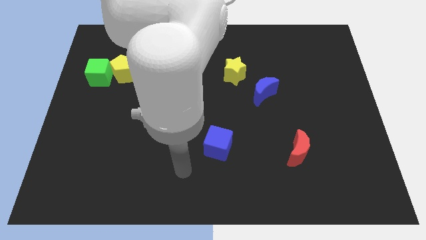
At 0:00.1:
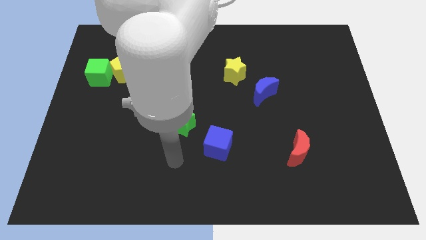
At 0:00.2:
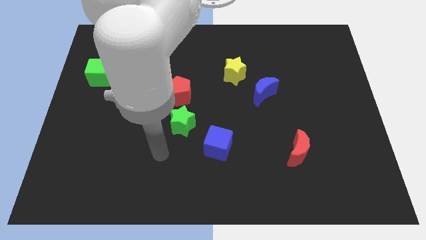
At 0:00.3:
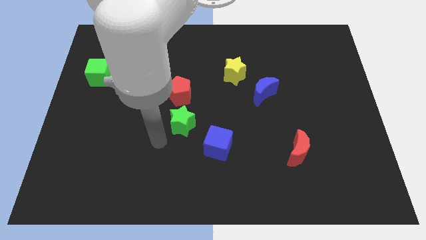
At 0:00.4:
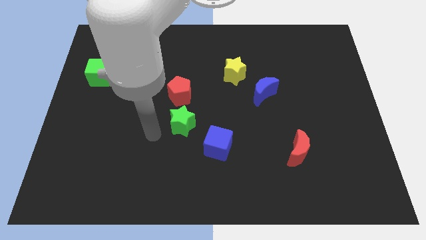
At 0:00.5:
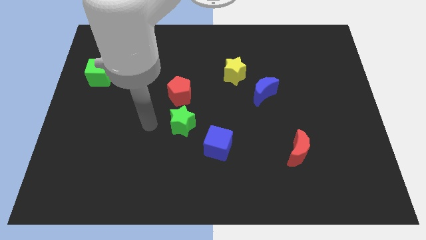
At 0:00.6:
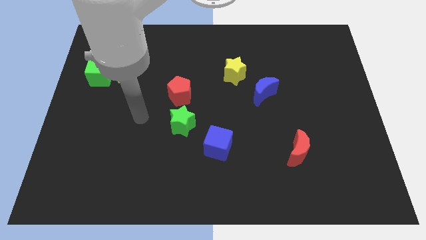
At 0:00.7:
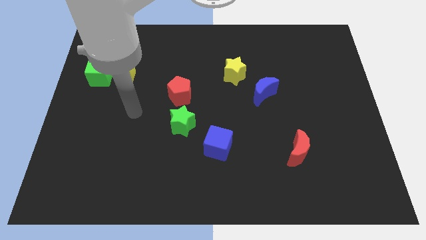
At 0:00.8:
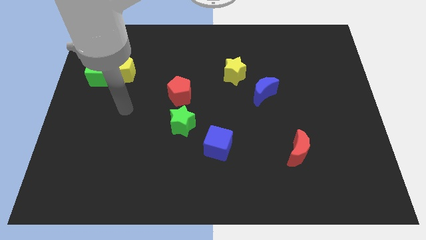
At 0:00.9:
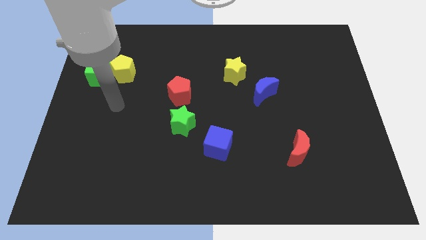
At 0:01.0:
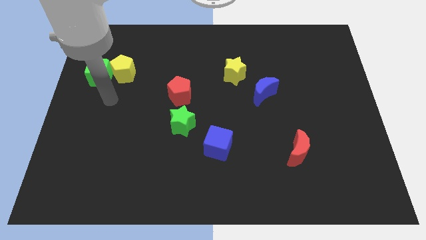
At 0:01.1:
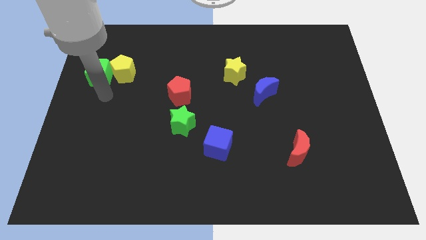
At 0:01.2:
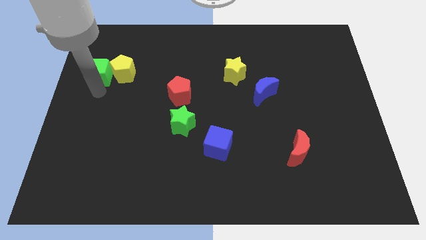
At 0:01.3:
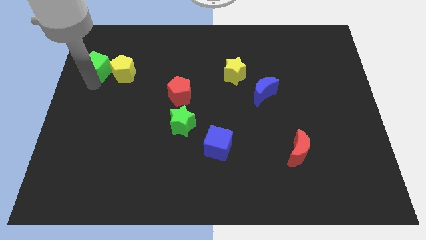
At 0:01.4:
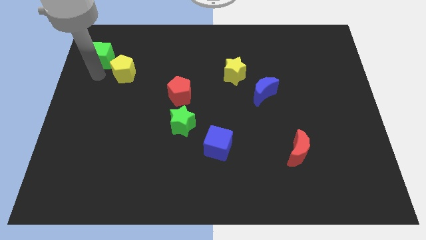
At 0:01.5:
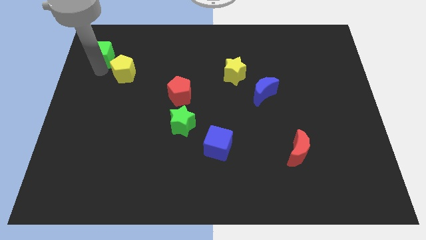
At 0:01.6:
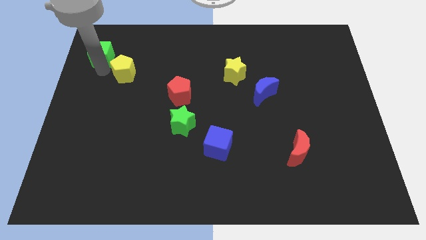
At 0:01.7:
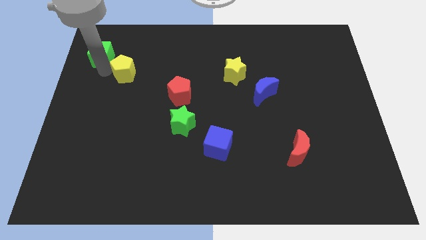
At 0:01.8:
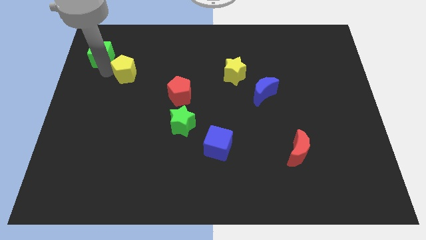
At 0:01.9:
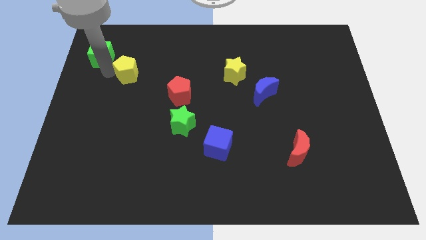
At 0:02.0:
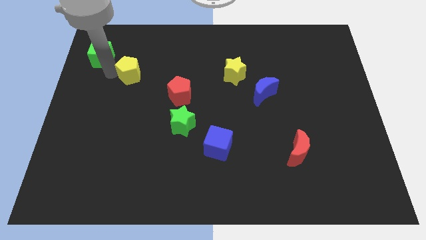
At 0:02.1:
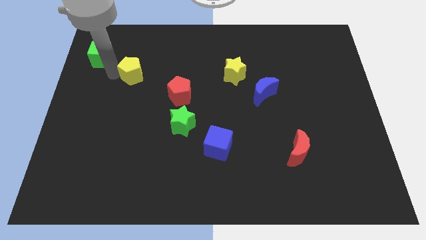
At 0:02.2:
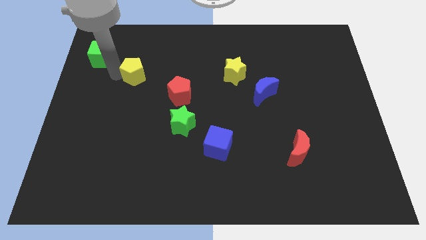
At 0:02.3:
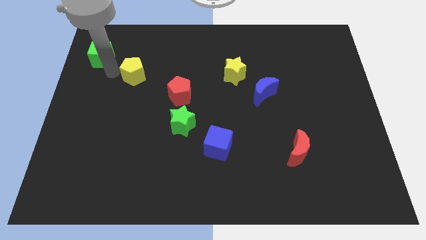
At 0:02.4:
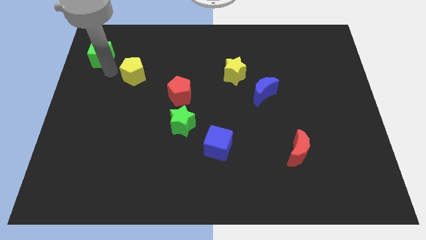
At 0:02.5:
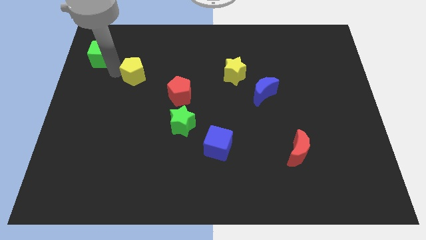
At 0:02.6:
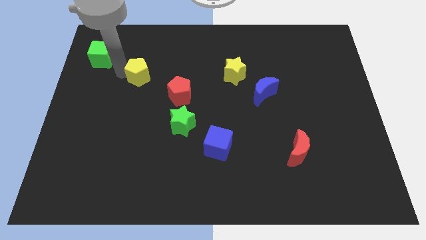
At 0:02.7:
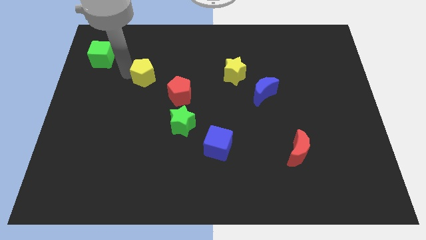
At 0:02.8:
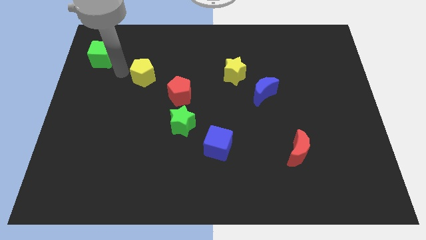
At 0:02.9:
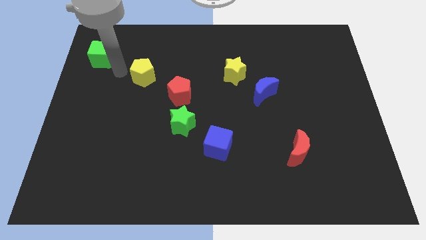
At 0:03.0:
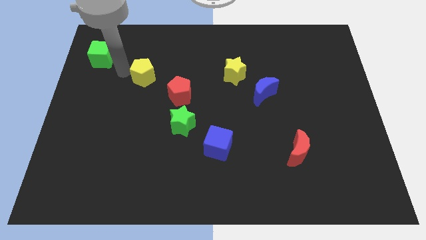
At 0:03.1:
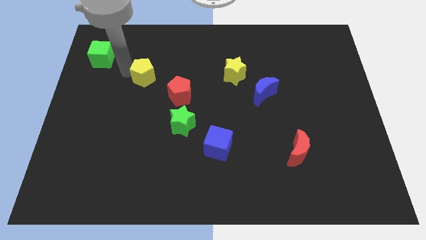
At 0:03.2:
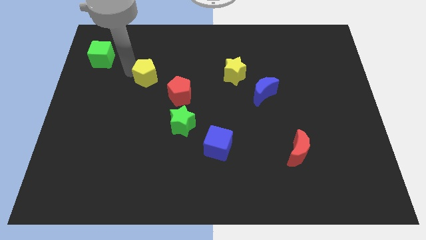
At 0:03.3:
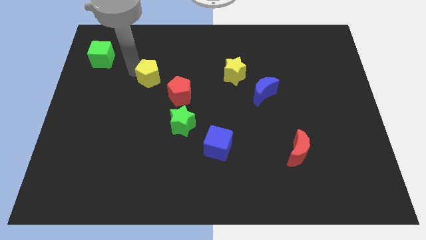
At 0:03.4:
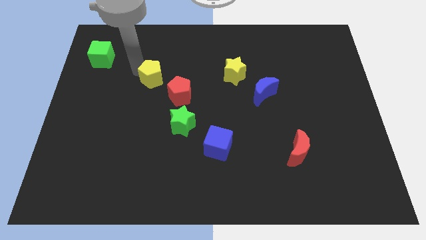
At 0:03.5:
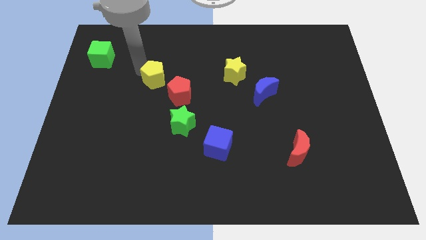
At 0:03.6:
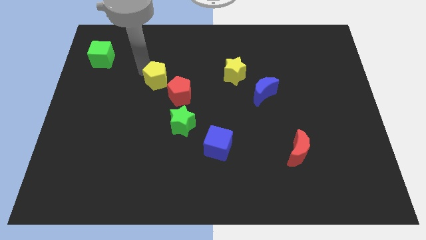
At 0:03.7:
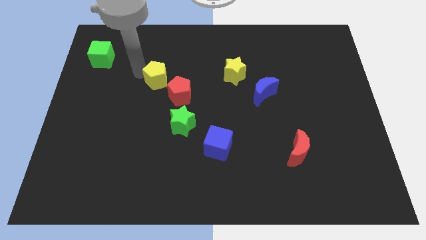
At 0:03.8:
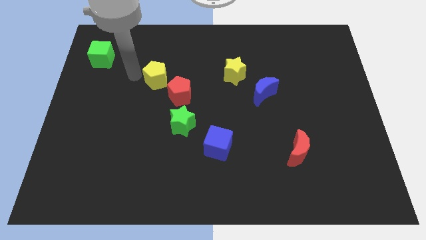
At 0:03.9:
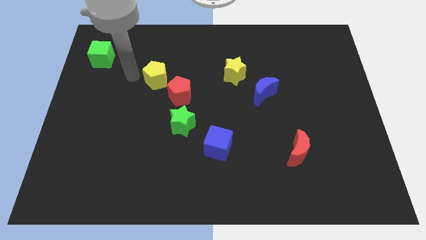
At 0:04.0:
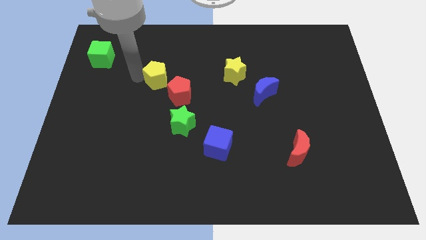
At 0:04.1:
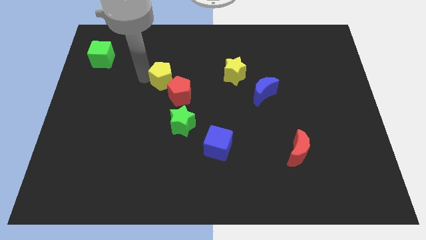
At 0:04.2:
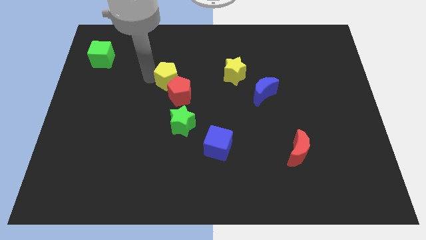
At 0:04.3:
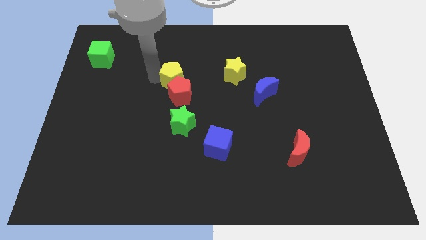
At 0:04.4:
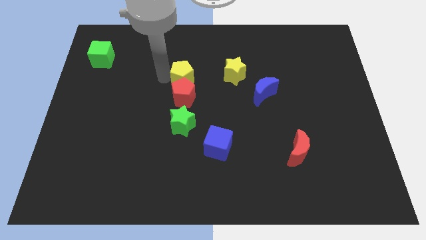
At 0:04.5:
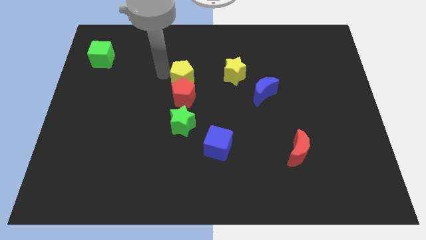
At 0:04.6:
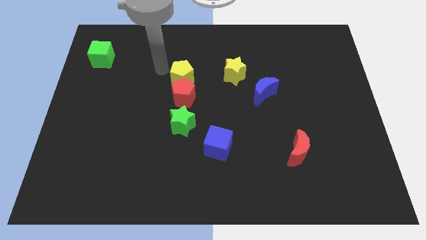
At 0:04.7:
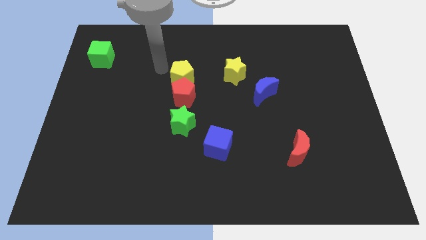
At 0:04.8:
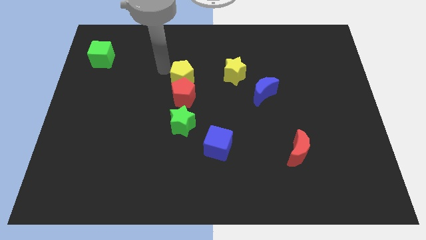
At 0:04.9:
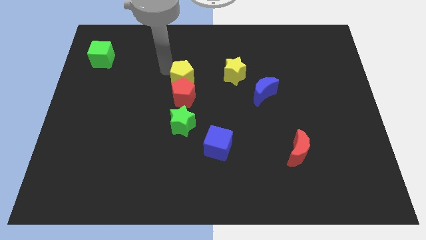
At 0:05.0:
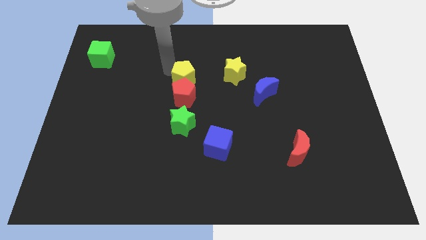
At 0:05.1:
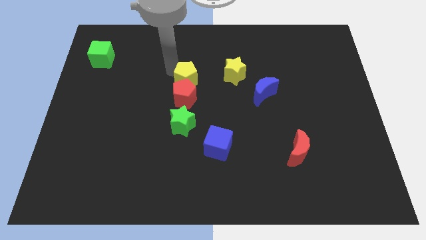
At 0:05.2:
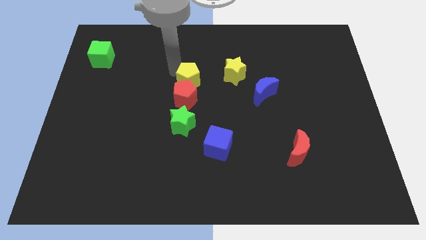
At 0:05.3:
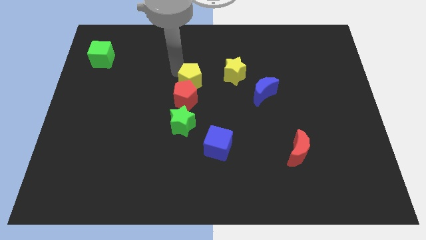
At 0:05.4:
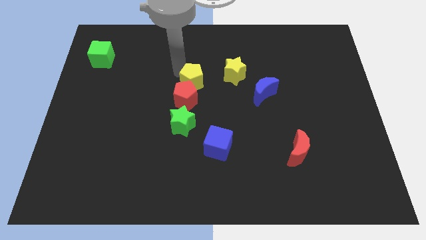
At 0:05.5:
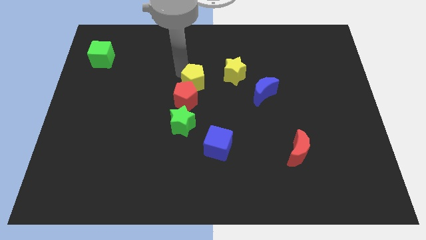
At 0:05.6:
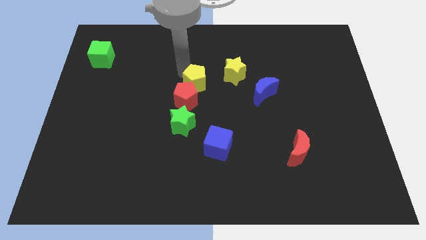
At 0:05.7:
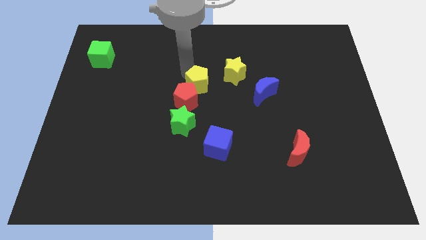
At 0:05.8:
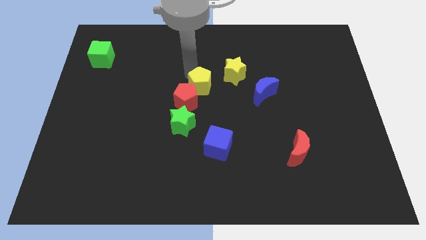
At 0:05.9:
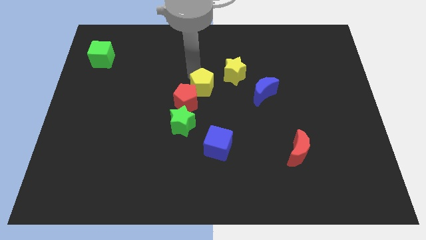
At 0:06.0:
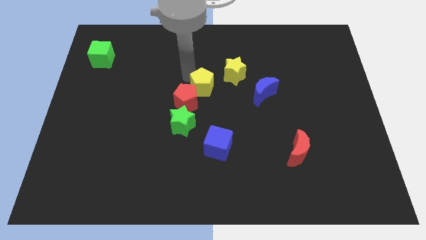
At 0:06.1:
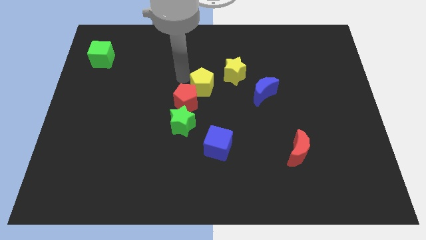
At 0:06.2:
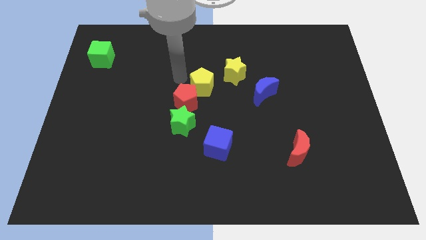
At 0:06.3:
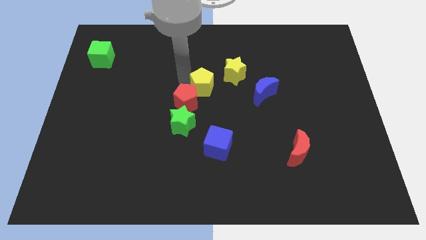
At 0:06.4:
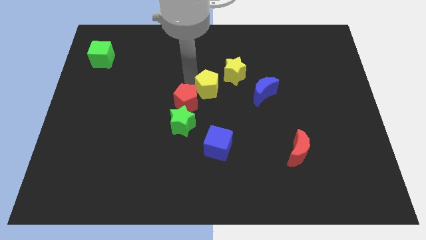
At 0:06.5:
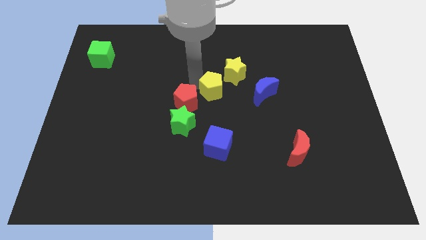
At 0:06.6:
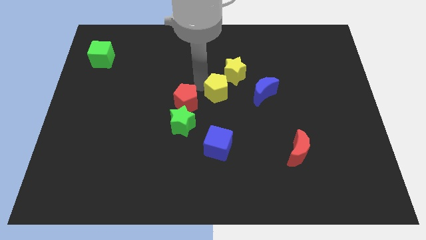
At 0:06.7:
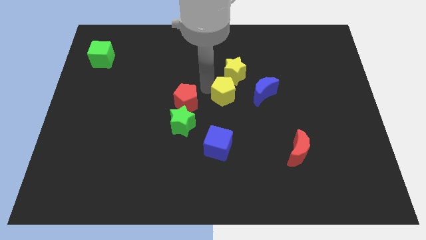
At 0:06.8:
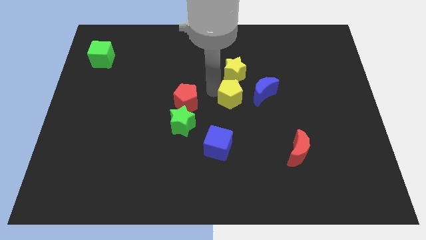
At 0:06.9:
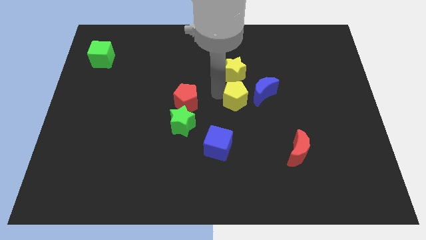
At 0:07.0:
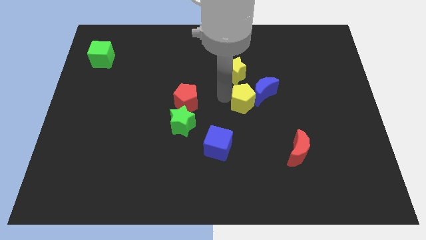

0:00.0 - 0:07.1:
slide the yellow pentagon next to the blue moon

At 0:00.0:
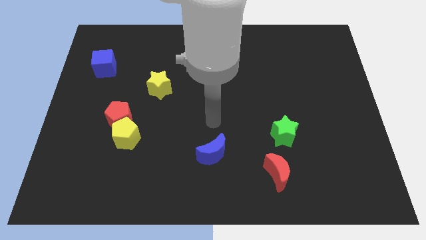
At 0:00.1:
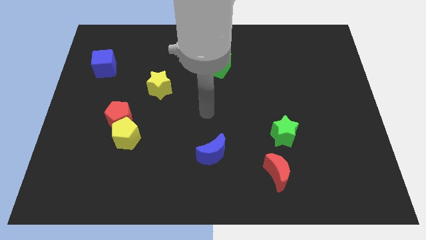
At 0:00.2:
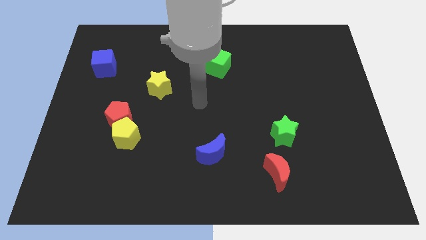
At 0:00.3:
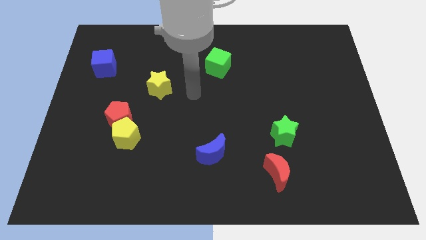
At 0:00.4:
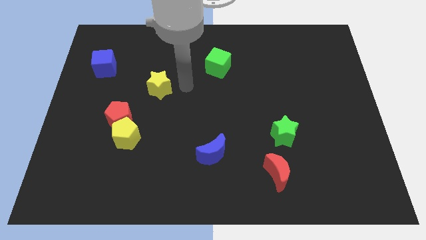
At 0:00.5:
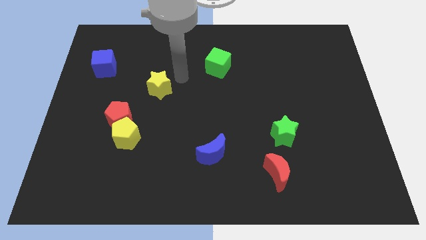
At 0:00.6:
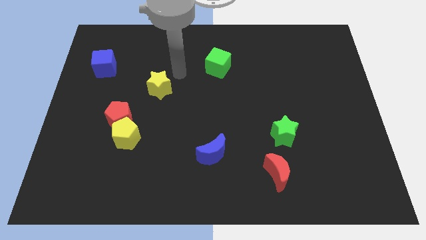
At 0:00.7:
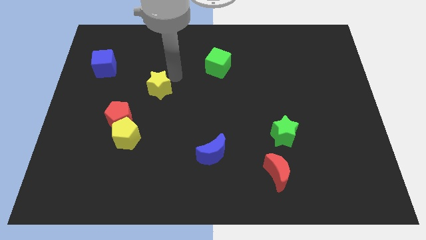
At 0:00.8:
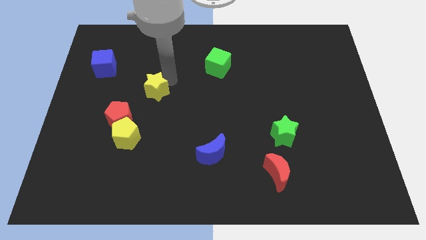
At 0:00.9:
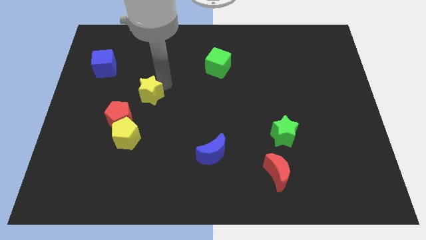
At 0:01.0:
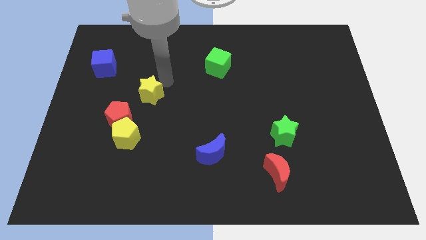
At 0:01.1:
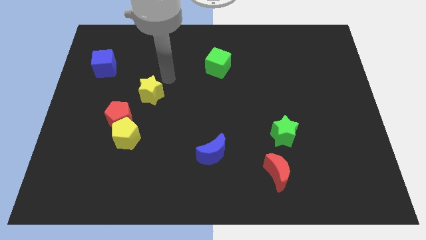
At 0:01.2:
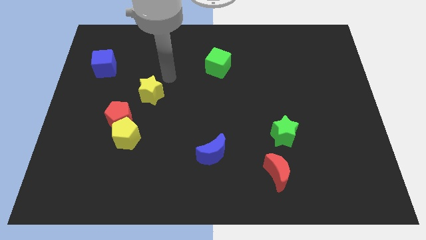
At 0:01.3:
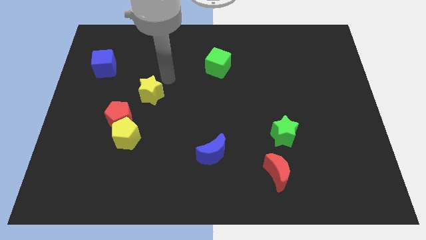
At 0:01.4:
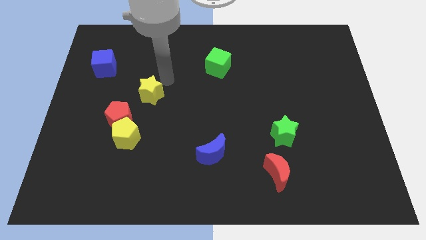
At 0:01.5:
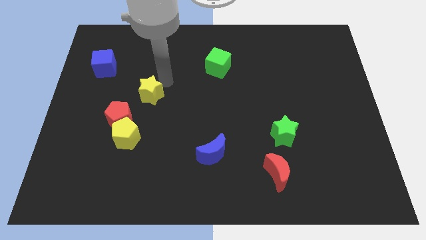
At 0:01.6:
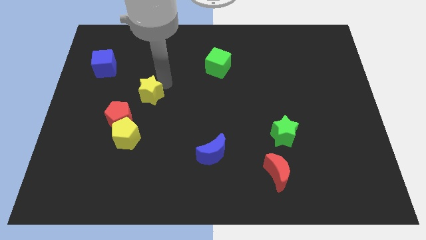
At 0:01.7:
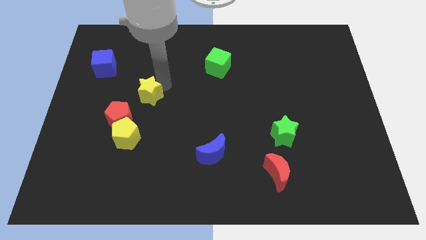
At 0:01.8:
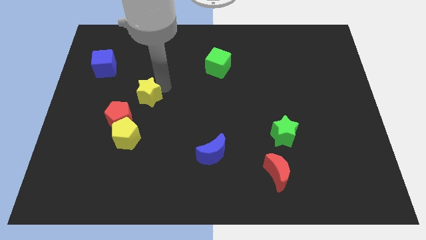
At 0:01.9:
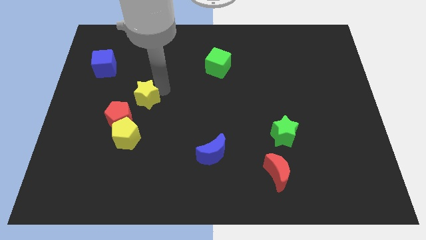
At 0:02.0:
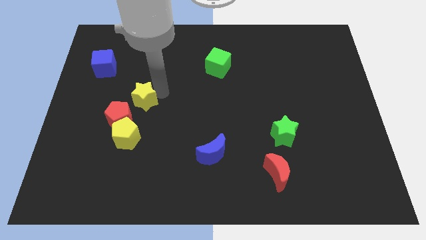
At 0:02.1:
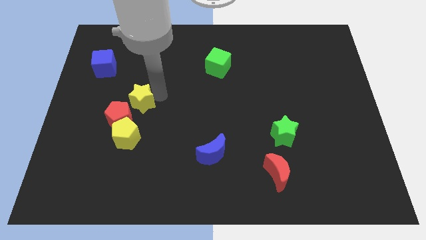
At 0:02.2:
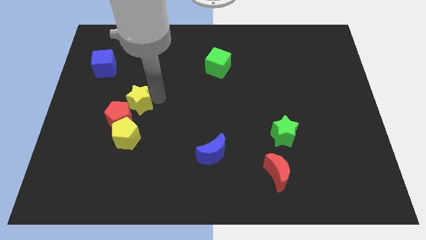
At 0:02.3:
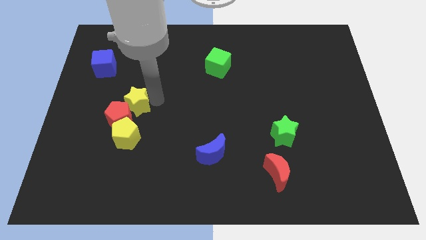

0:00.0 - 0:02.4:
slide the yellow star to the red pentagon
